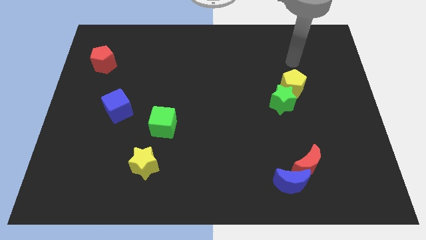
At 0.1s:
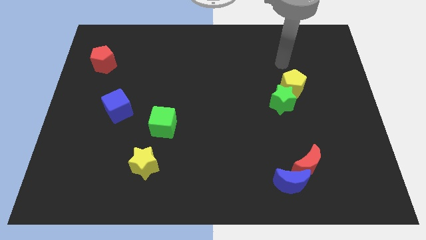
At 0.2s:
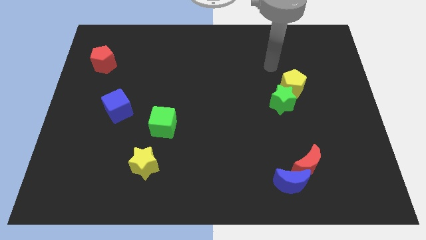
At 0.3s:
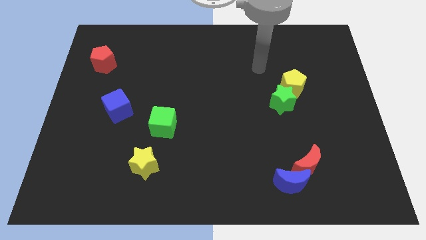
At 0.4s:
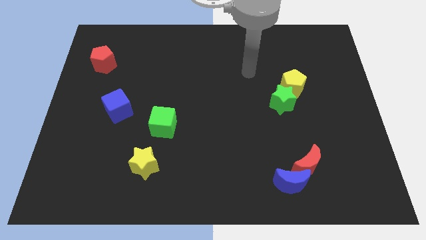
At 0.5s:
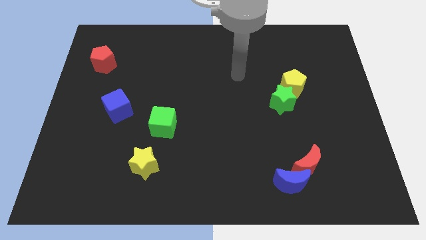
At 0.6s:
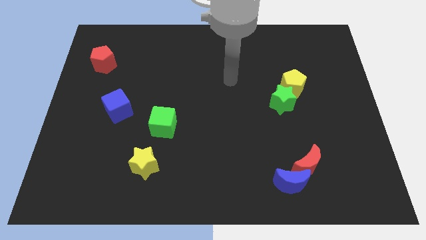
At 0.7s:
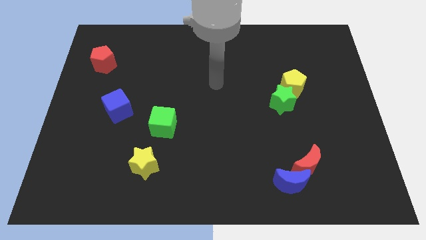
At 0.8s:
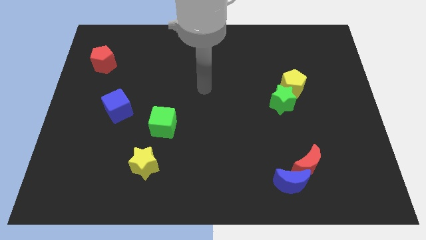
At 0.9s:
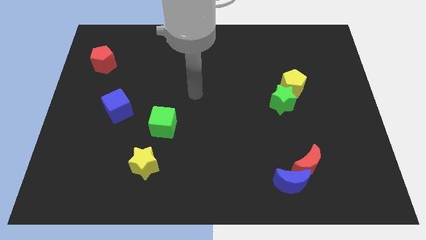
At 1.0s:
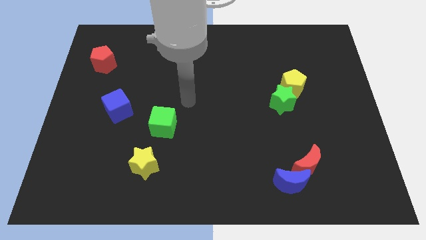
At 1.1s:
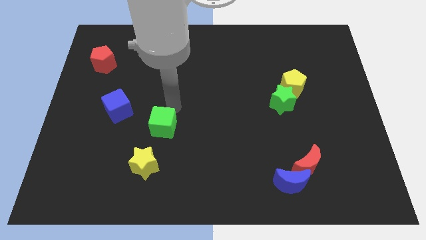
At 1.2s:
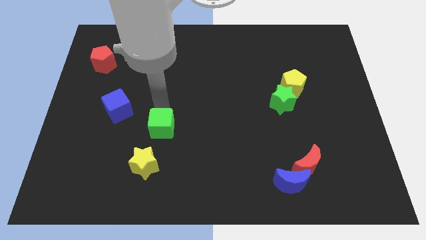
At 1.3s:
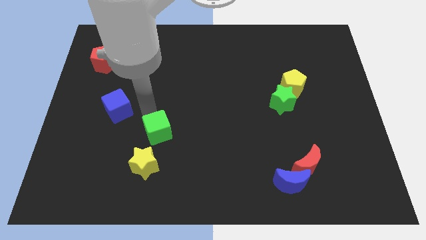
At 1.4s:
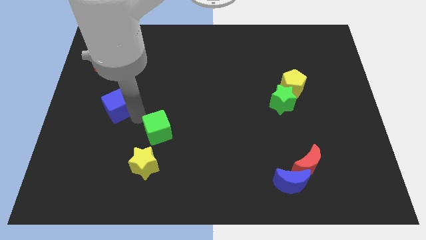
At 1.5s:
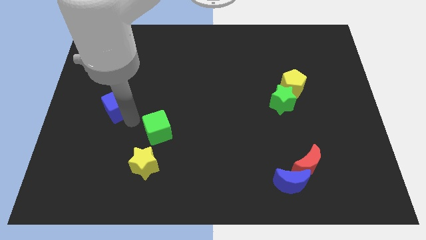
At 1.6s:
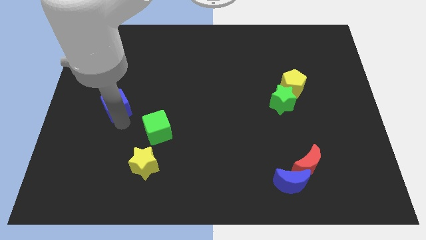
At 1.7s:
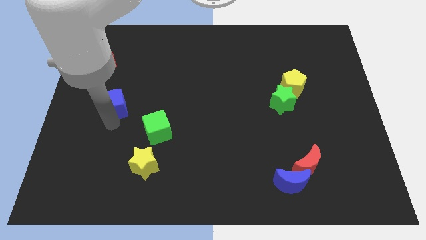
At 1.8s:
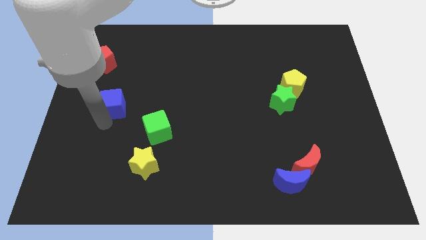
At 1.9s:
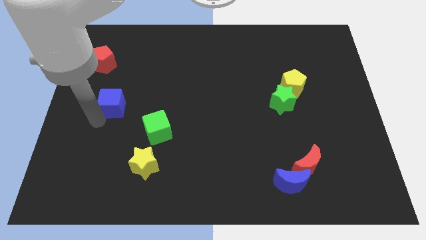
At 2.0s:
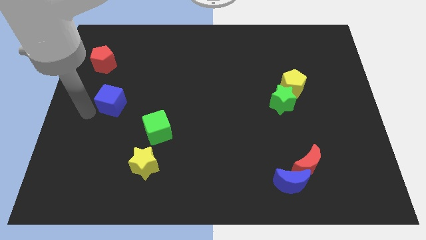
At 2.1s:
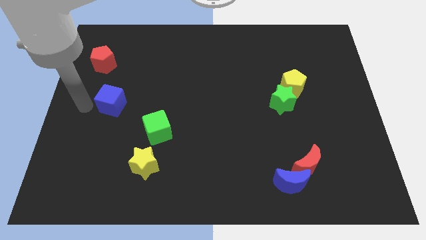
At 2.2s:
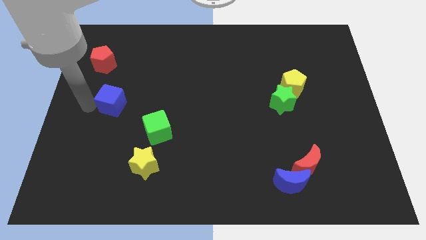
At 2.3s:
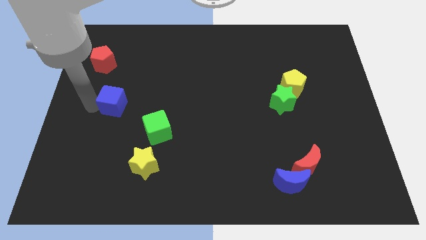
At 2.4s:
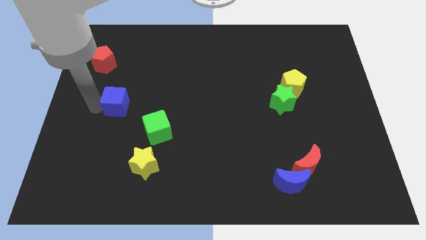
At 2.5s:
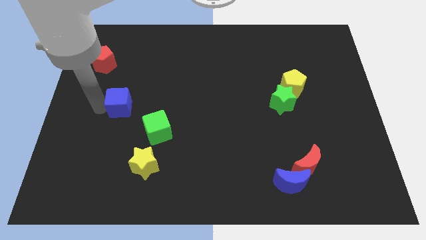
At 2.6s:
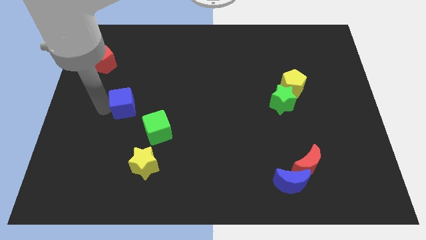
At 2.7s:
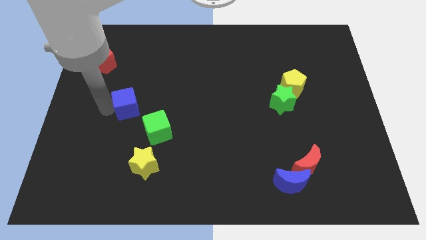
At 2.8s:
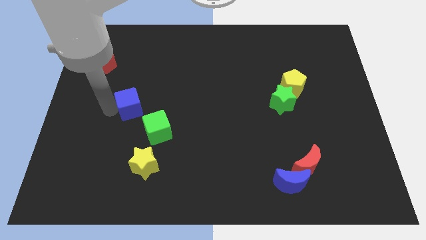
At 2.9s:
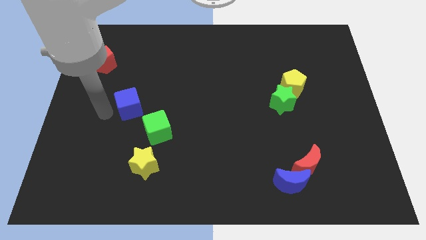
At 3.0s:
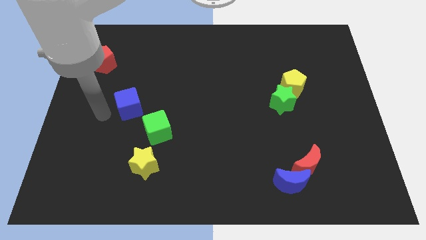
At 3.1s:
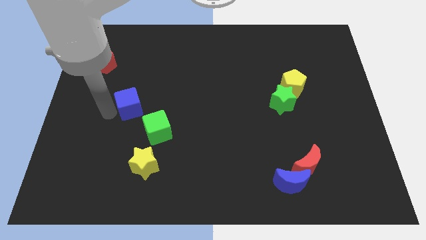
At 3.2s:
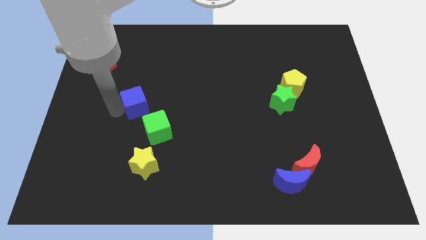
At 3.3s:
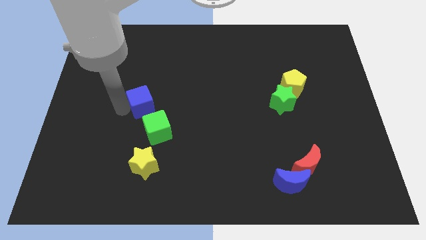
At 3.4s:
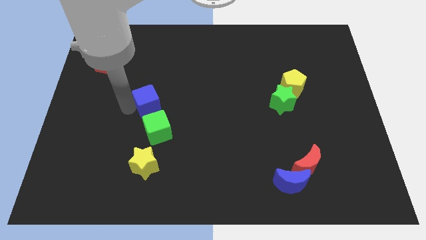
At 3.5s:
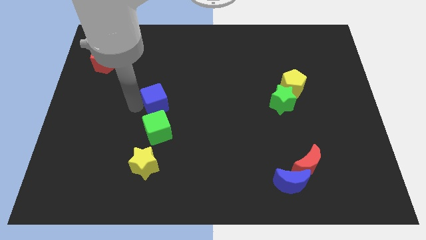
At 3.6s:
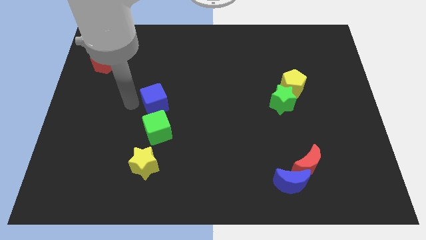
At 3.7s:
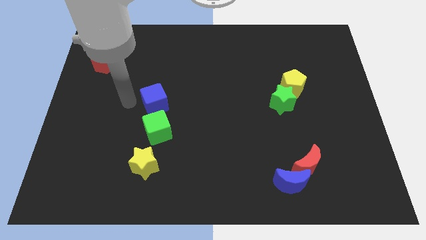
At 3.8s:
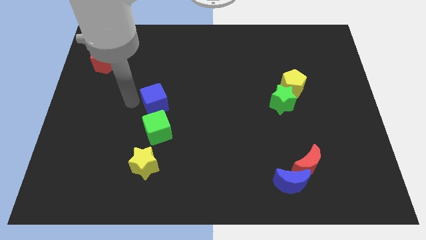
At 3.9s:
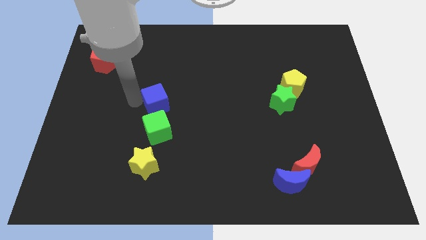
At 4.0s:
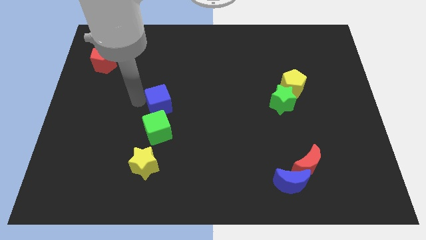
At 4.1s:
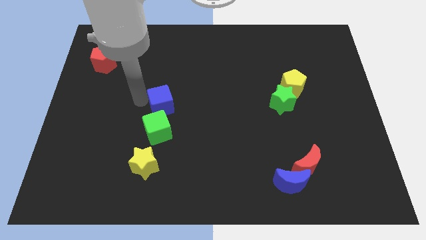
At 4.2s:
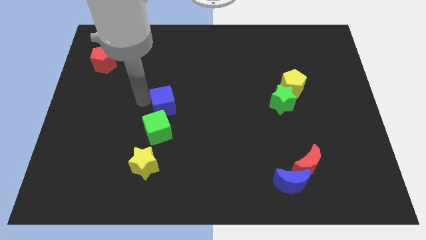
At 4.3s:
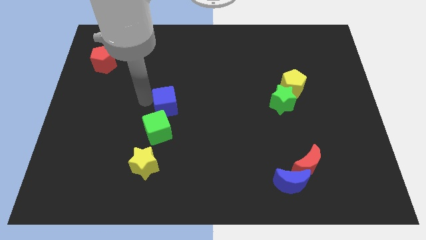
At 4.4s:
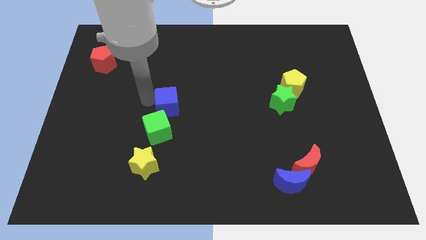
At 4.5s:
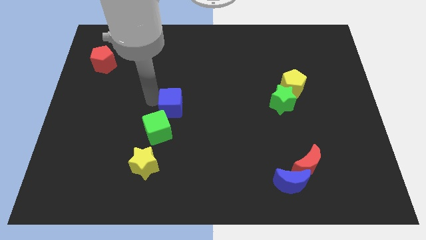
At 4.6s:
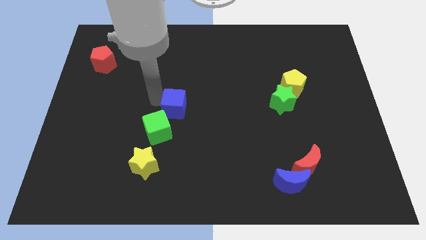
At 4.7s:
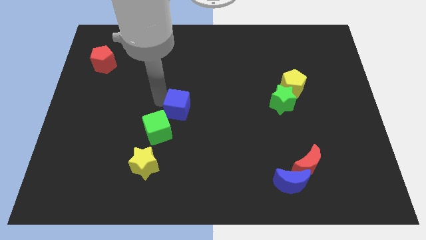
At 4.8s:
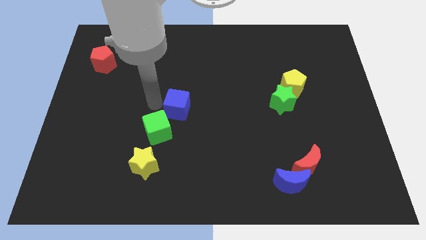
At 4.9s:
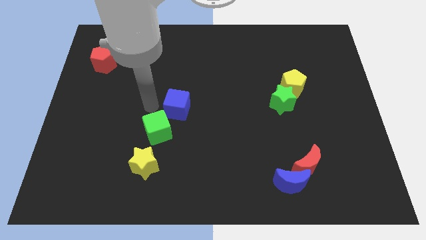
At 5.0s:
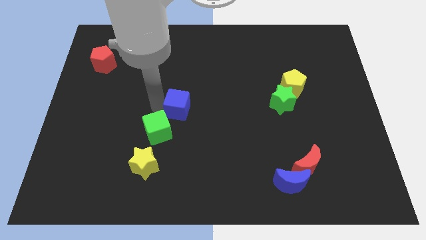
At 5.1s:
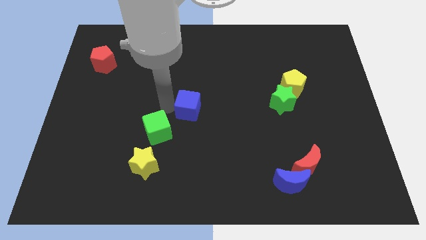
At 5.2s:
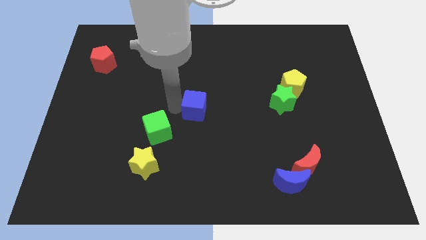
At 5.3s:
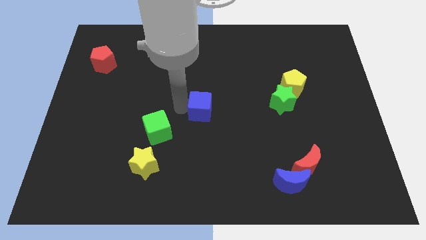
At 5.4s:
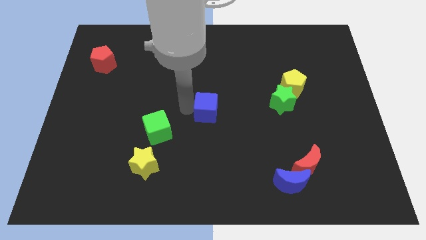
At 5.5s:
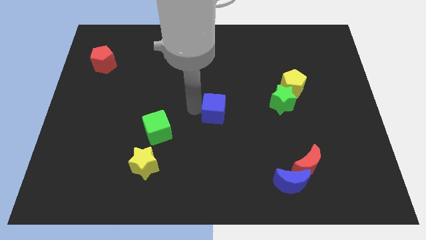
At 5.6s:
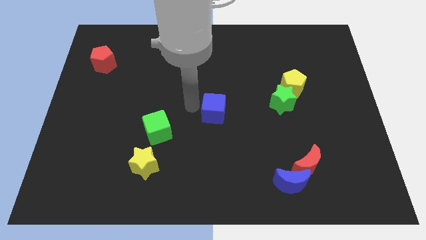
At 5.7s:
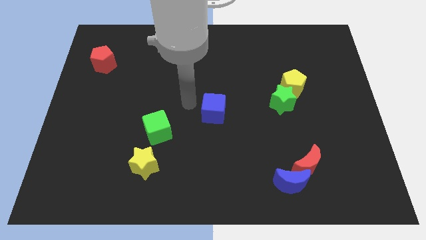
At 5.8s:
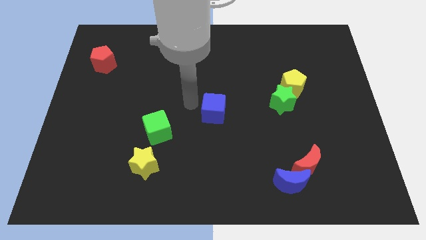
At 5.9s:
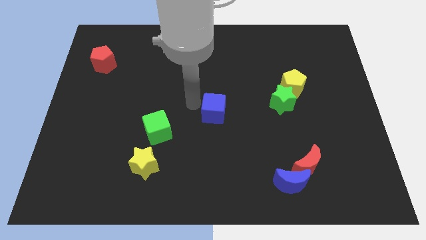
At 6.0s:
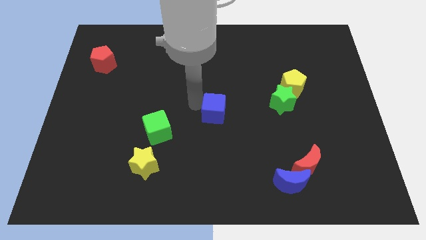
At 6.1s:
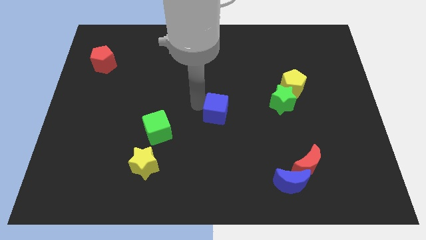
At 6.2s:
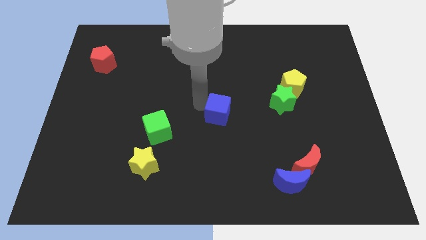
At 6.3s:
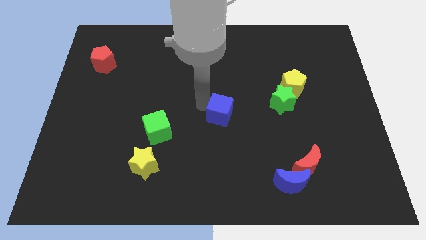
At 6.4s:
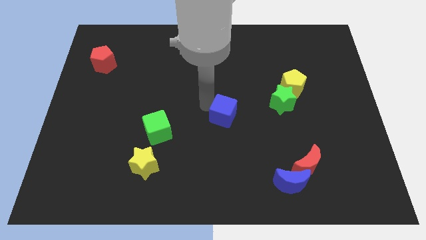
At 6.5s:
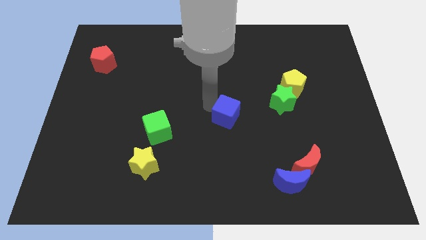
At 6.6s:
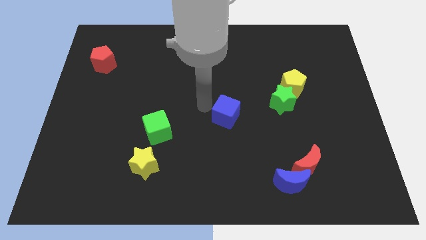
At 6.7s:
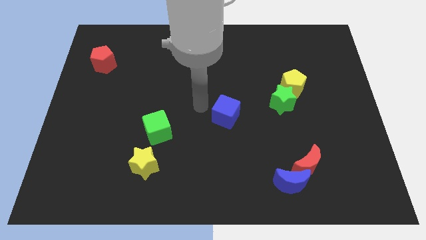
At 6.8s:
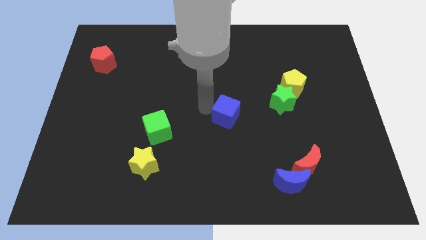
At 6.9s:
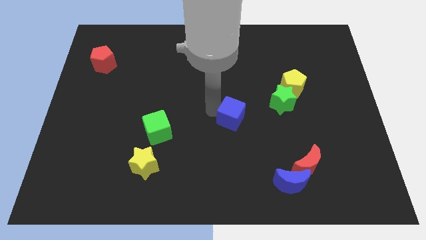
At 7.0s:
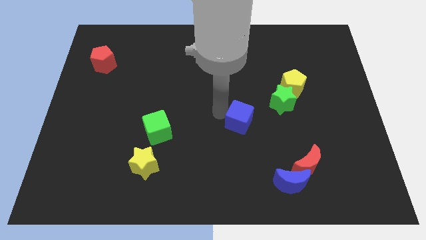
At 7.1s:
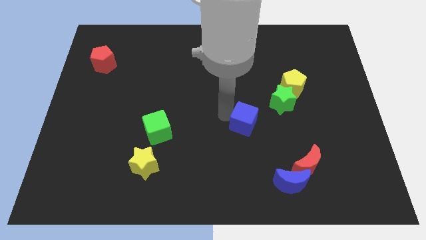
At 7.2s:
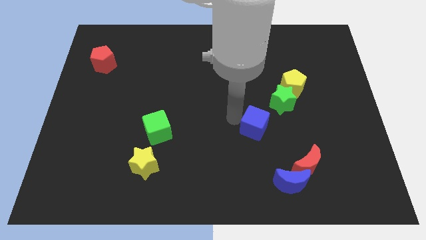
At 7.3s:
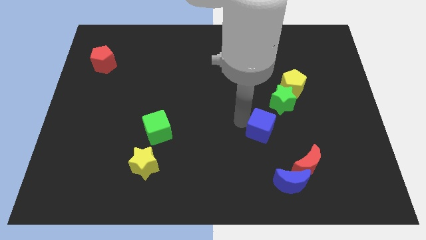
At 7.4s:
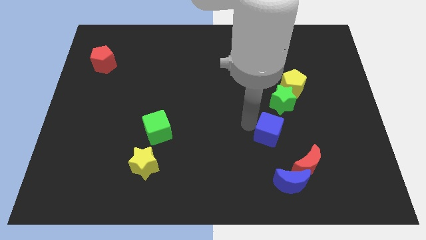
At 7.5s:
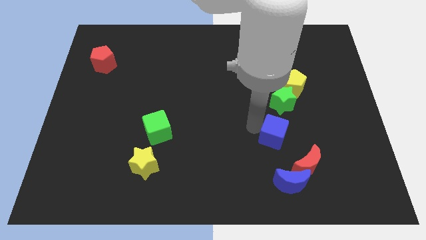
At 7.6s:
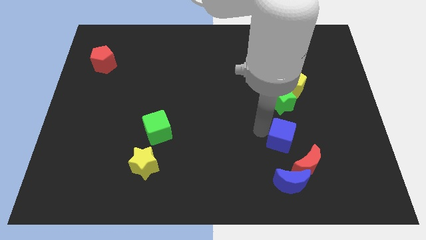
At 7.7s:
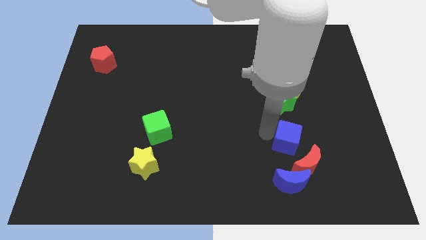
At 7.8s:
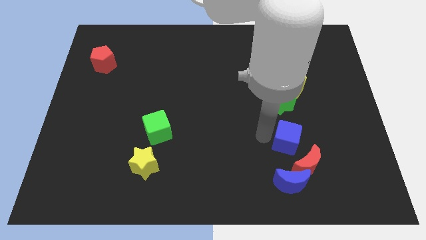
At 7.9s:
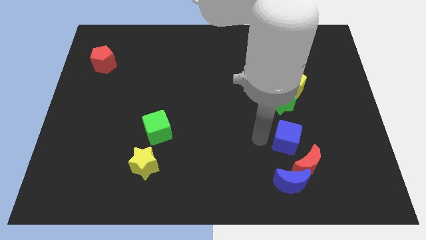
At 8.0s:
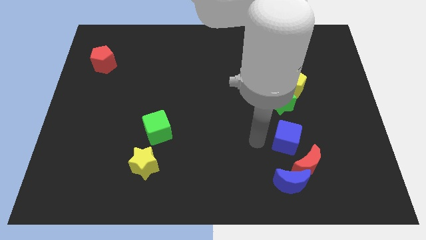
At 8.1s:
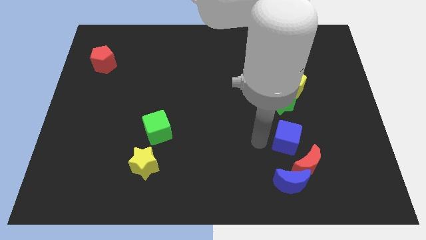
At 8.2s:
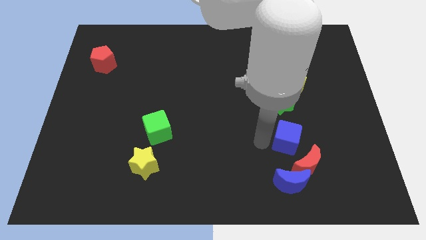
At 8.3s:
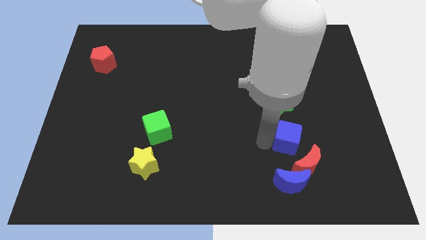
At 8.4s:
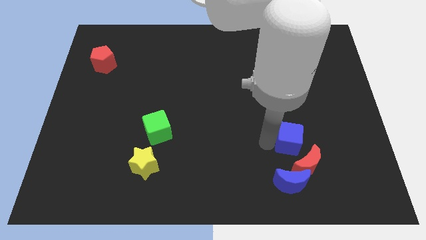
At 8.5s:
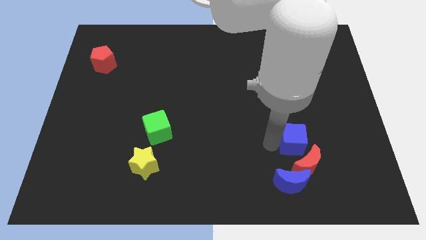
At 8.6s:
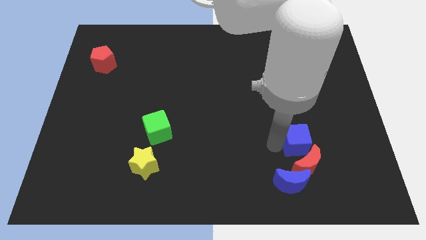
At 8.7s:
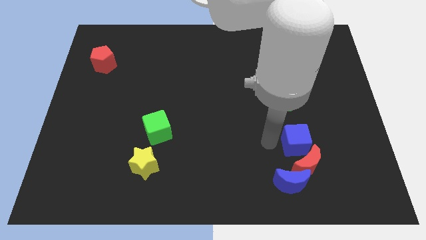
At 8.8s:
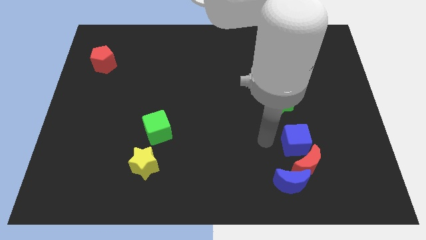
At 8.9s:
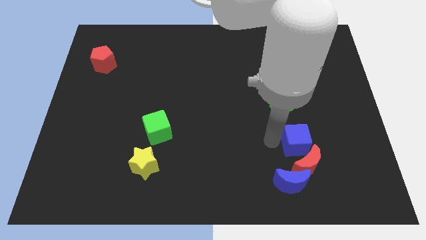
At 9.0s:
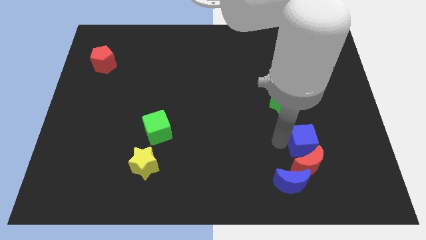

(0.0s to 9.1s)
push the blue cube to the top right of the red moon
